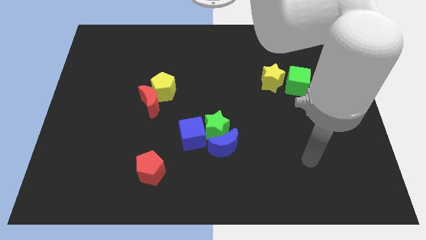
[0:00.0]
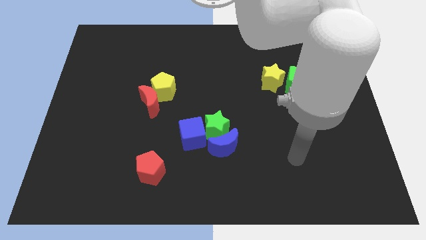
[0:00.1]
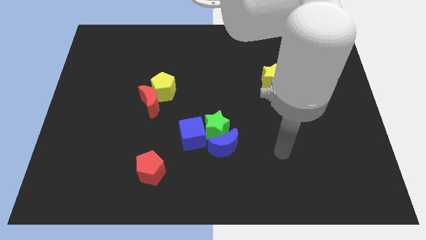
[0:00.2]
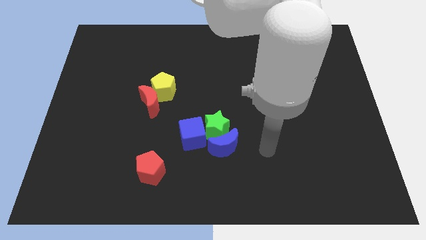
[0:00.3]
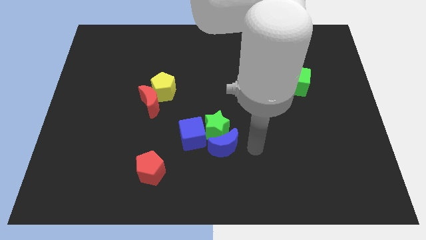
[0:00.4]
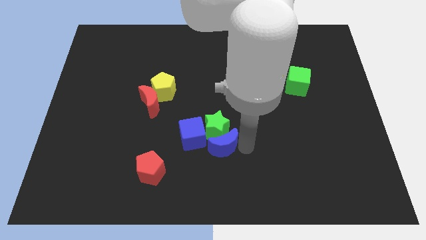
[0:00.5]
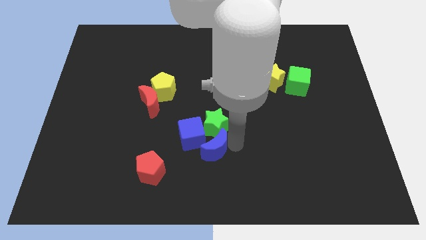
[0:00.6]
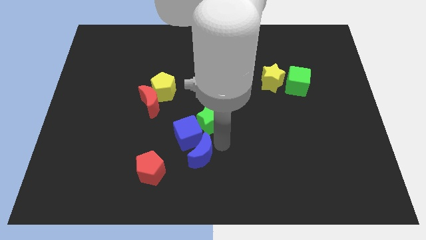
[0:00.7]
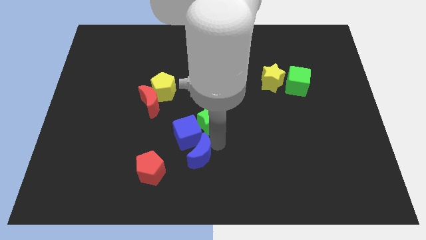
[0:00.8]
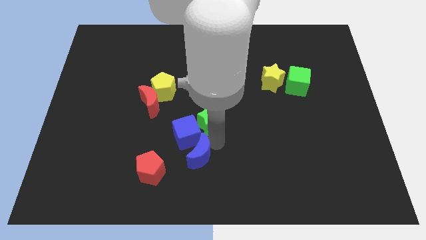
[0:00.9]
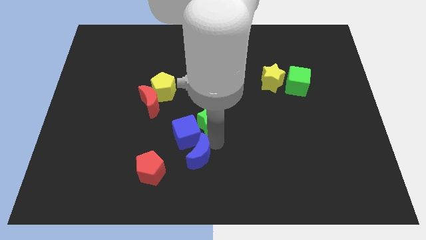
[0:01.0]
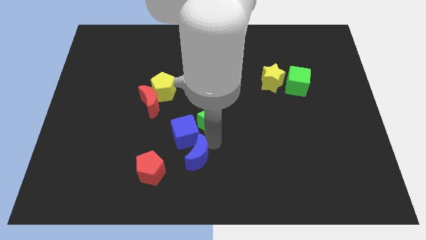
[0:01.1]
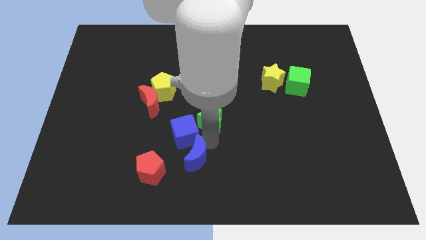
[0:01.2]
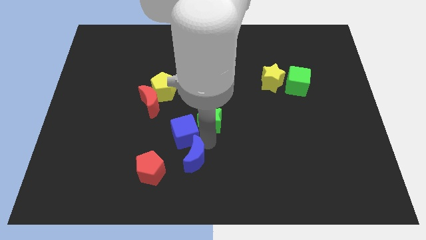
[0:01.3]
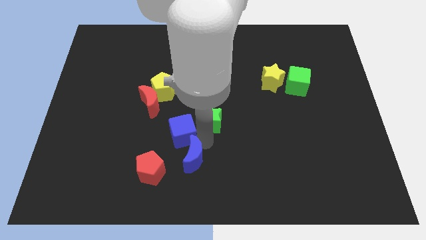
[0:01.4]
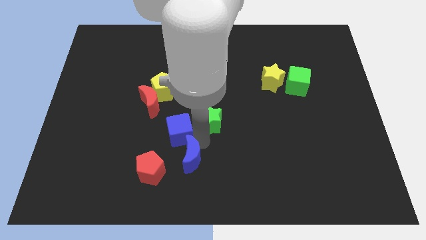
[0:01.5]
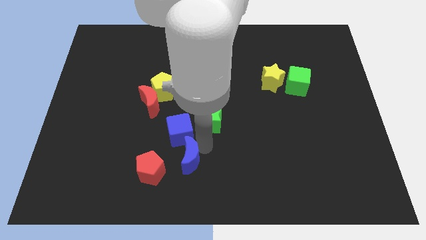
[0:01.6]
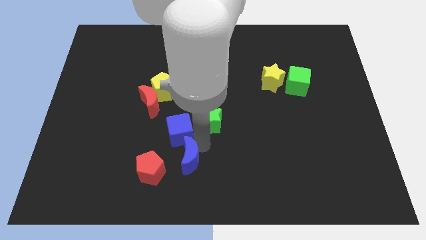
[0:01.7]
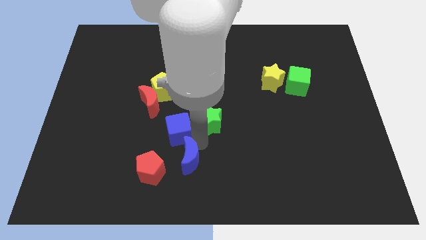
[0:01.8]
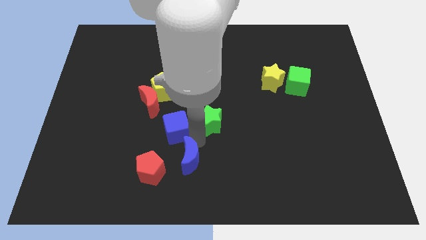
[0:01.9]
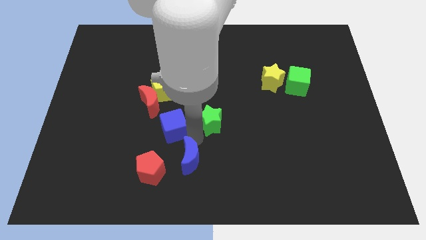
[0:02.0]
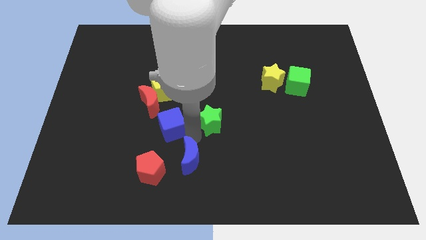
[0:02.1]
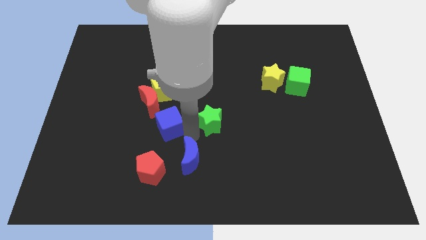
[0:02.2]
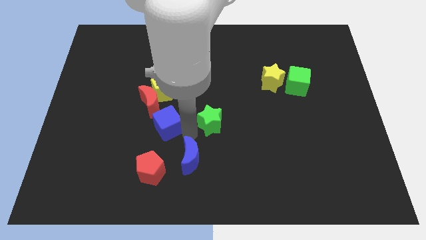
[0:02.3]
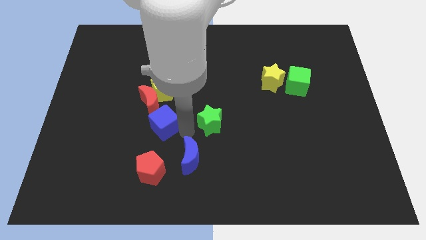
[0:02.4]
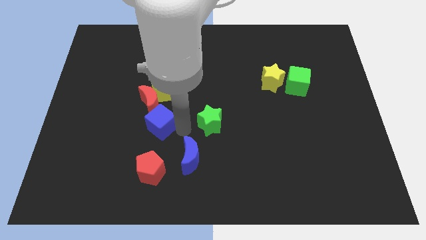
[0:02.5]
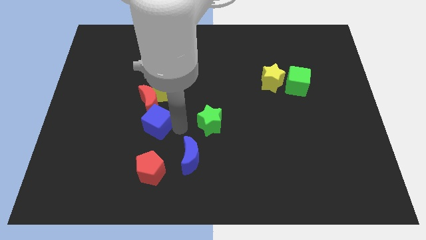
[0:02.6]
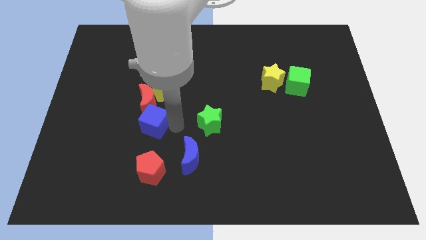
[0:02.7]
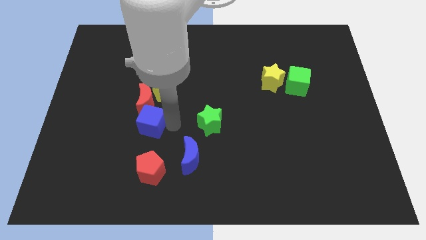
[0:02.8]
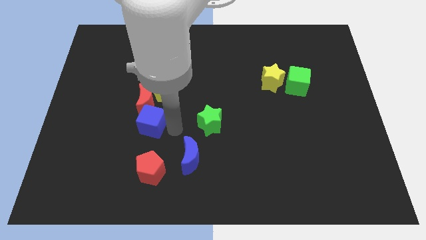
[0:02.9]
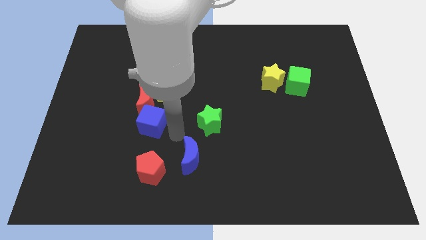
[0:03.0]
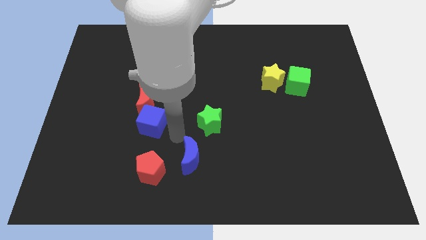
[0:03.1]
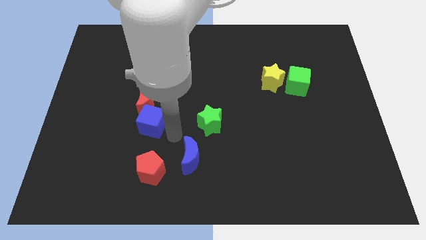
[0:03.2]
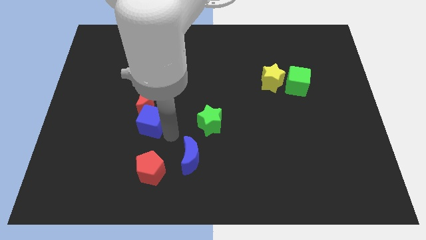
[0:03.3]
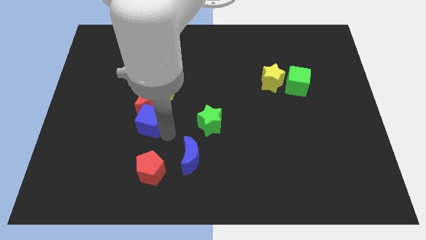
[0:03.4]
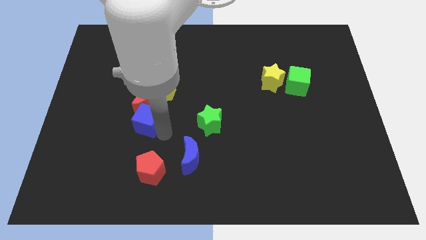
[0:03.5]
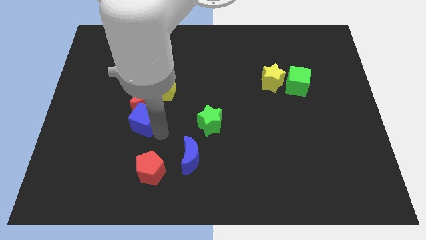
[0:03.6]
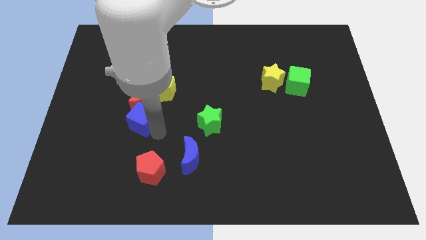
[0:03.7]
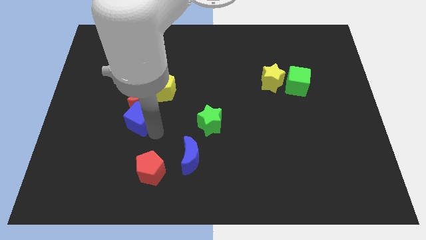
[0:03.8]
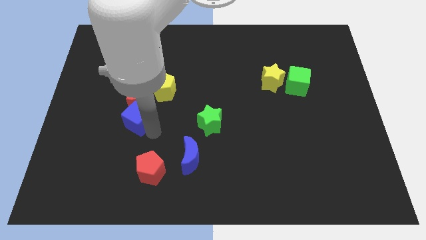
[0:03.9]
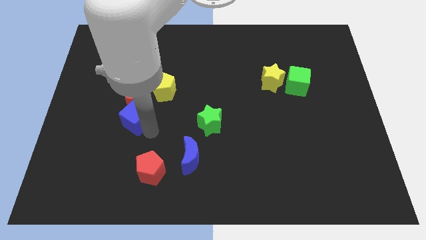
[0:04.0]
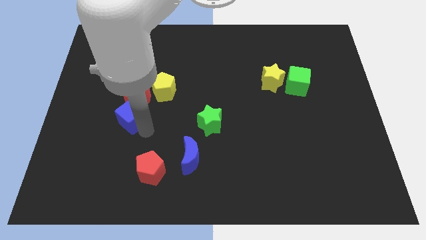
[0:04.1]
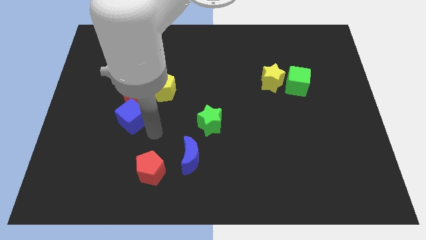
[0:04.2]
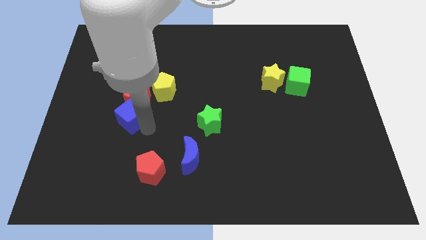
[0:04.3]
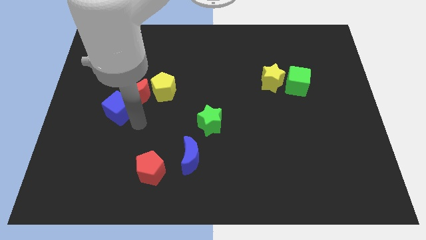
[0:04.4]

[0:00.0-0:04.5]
move the blue cube to the left side of the red moon

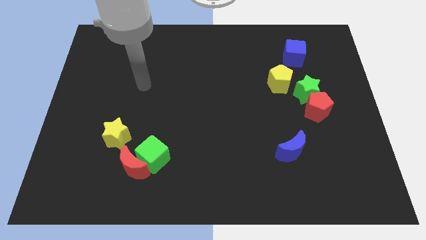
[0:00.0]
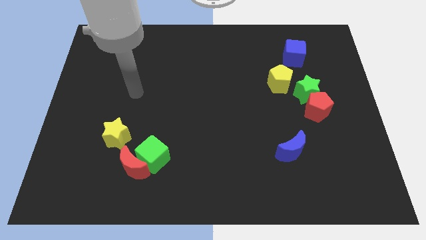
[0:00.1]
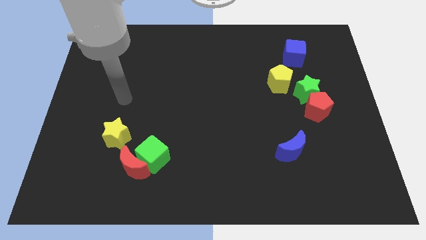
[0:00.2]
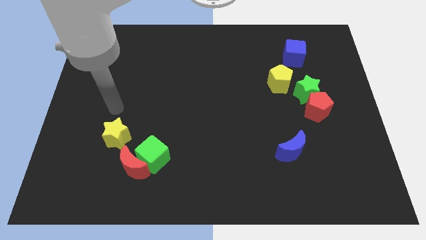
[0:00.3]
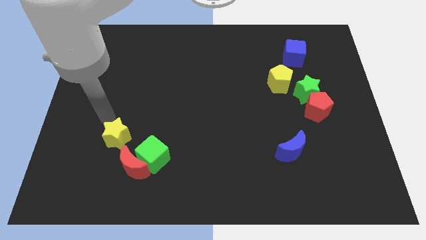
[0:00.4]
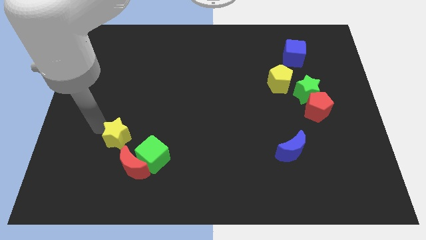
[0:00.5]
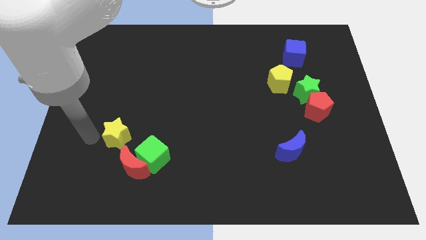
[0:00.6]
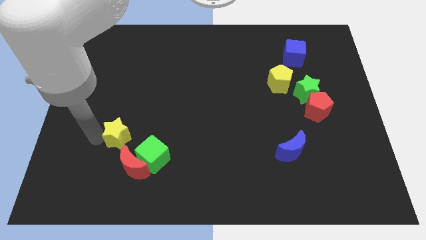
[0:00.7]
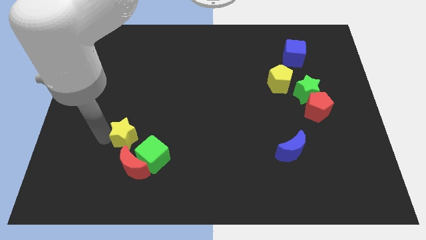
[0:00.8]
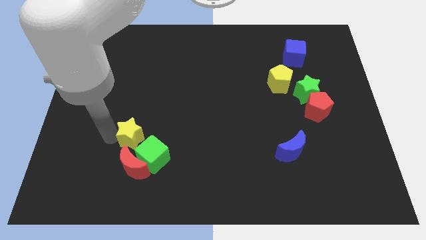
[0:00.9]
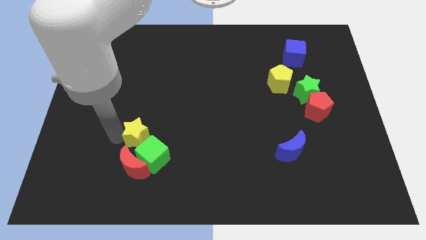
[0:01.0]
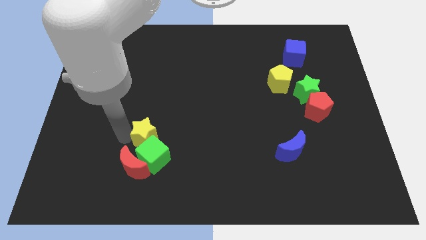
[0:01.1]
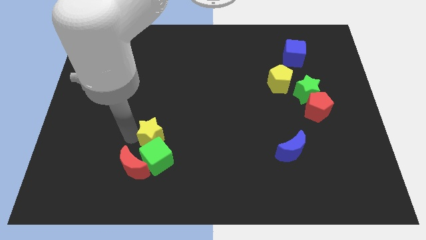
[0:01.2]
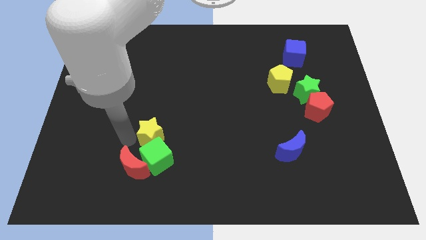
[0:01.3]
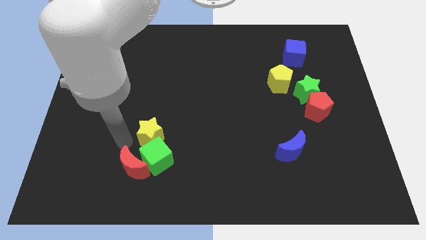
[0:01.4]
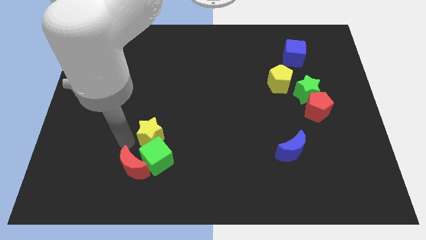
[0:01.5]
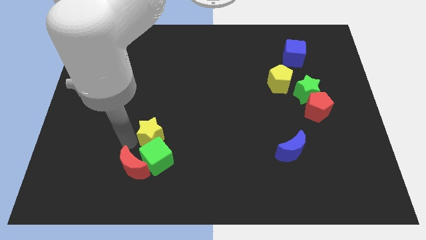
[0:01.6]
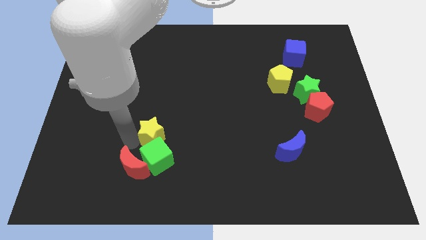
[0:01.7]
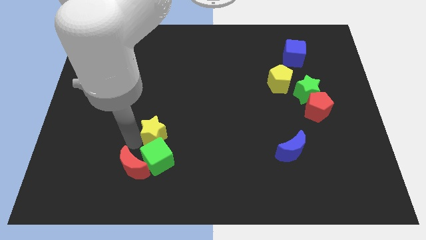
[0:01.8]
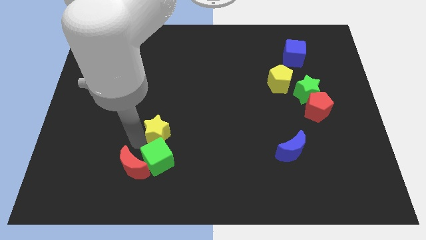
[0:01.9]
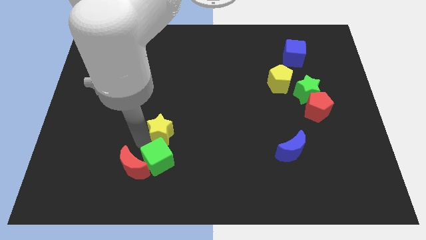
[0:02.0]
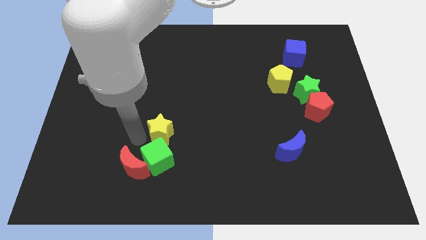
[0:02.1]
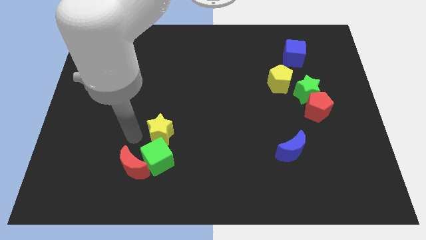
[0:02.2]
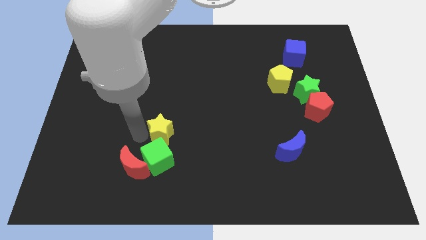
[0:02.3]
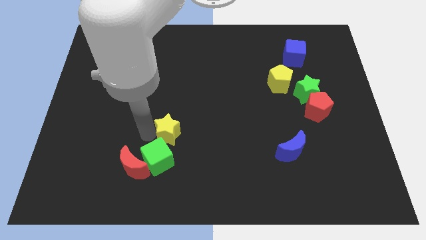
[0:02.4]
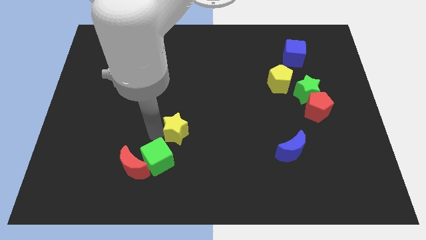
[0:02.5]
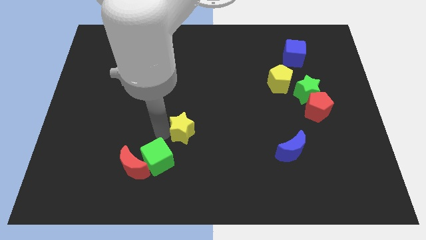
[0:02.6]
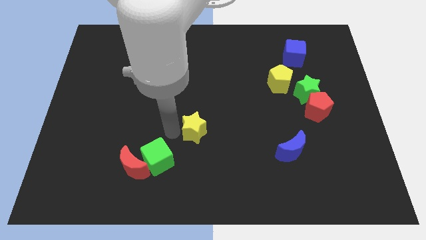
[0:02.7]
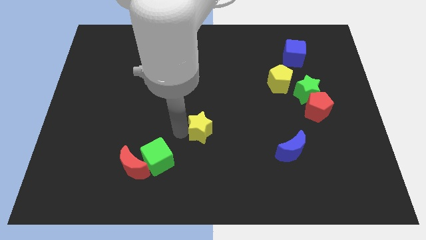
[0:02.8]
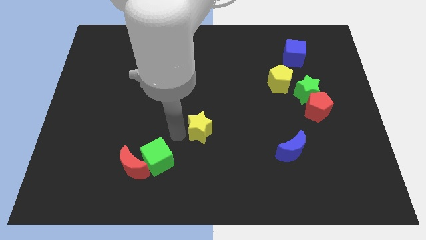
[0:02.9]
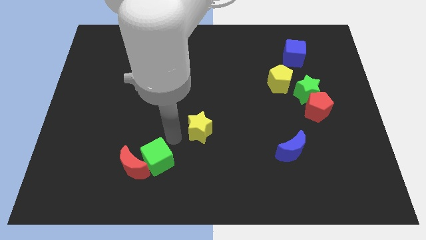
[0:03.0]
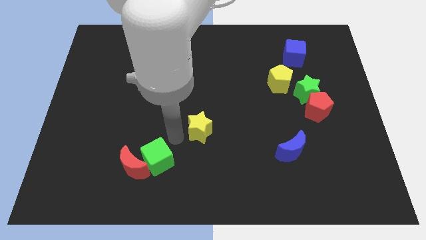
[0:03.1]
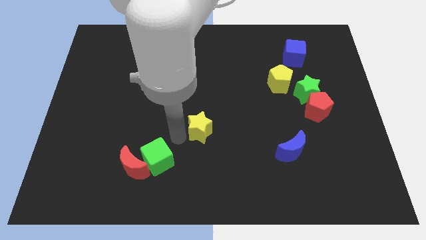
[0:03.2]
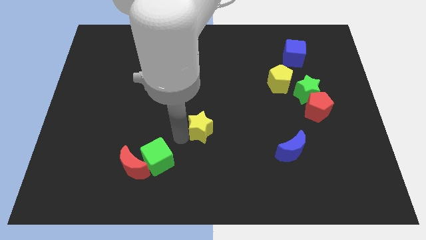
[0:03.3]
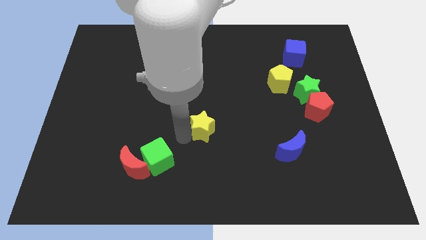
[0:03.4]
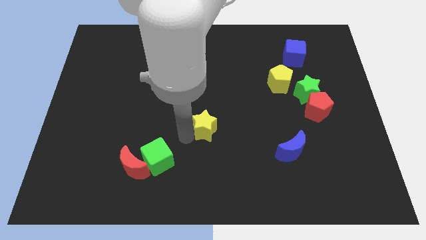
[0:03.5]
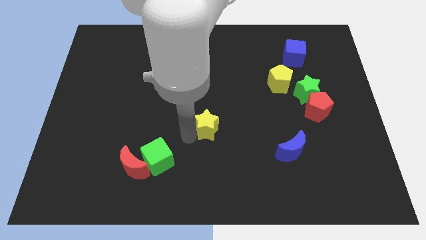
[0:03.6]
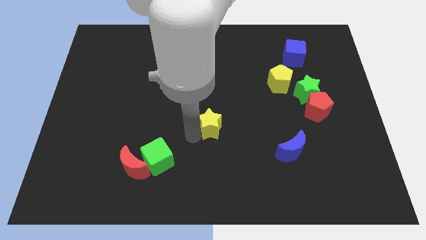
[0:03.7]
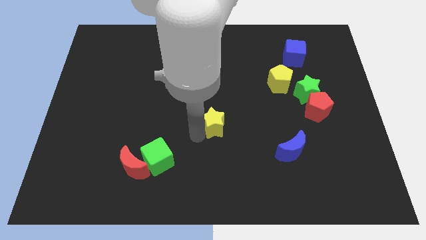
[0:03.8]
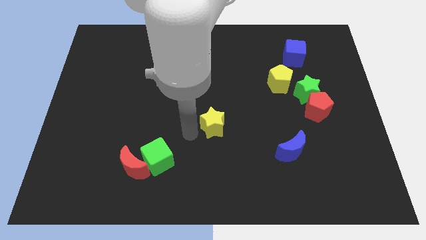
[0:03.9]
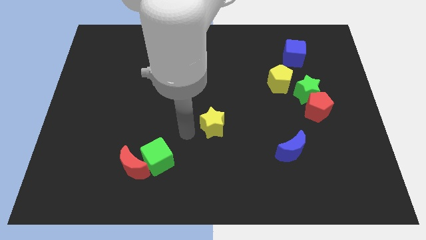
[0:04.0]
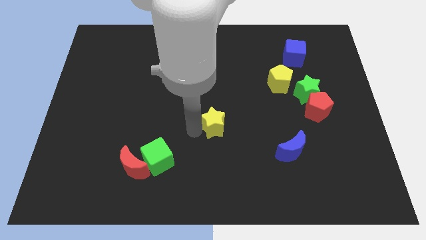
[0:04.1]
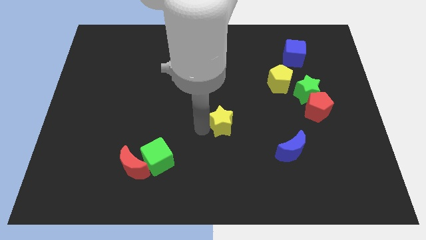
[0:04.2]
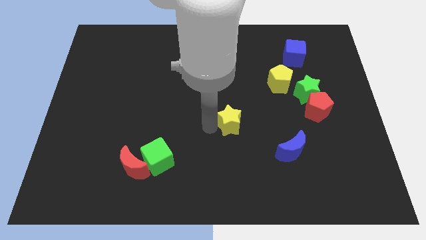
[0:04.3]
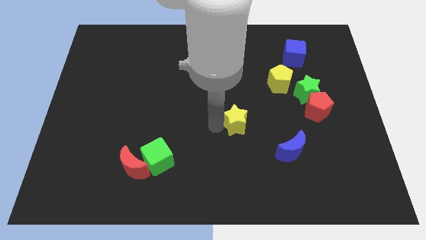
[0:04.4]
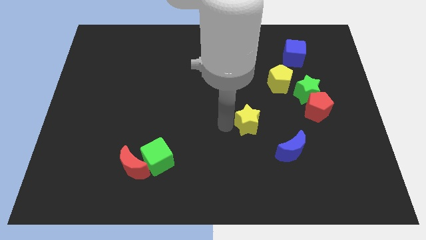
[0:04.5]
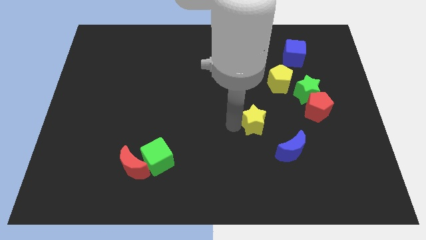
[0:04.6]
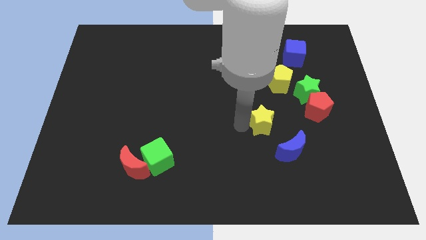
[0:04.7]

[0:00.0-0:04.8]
push the yellow star to the left side of the red pentagon
